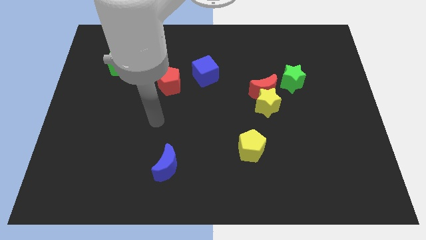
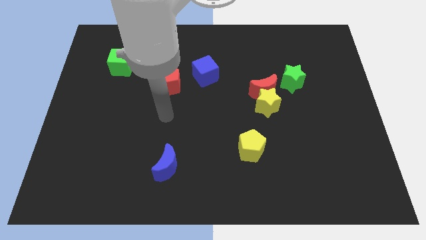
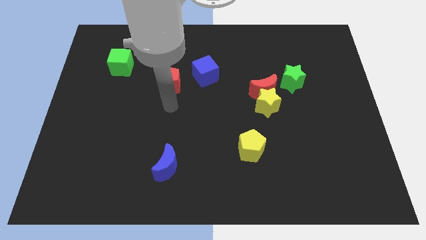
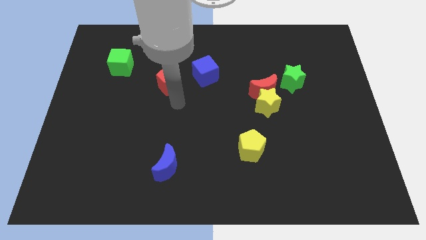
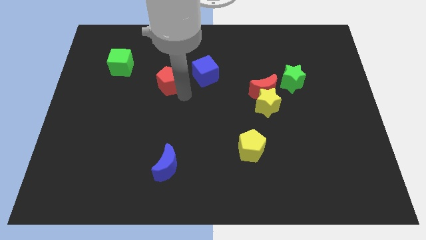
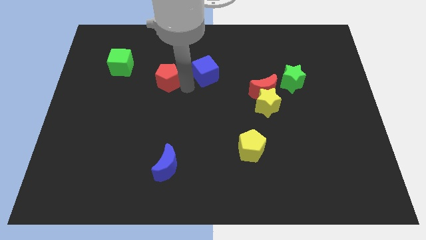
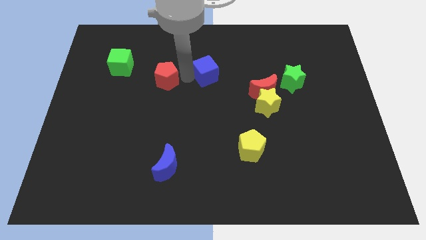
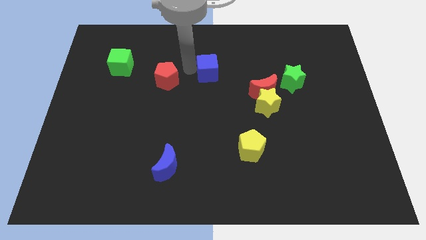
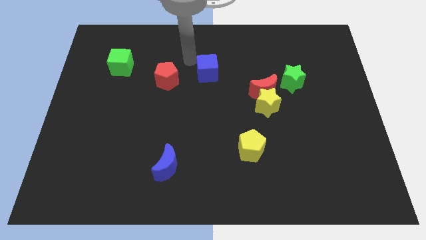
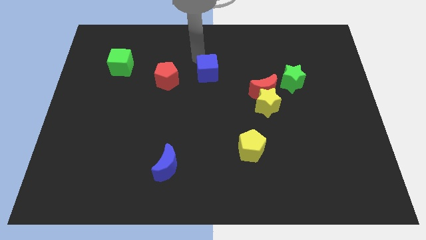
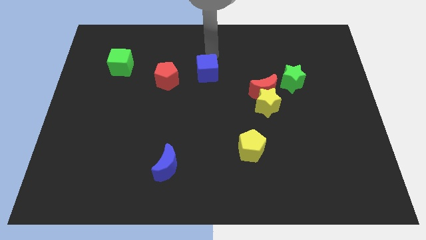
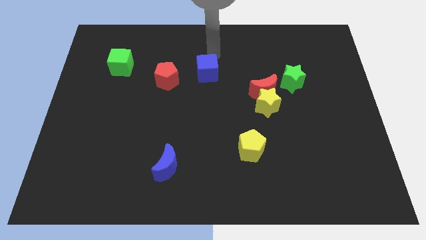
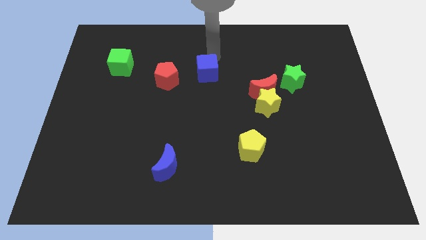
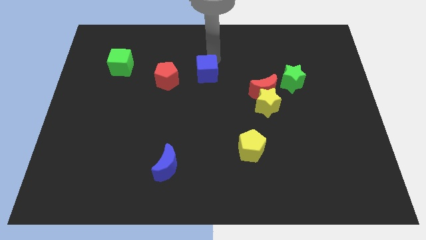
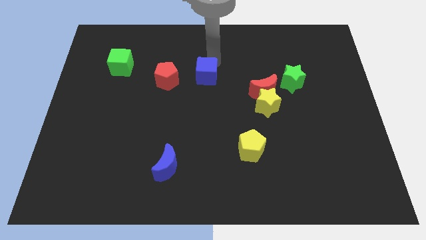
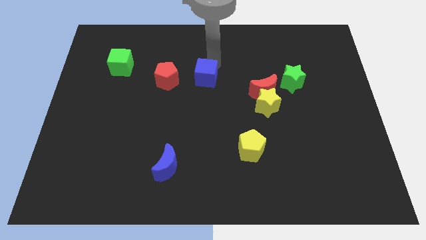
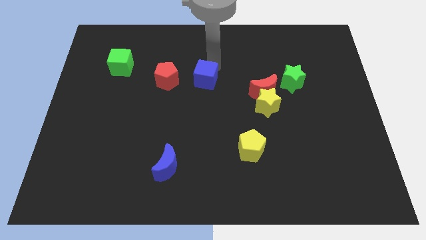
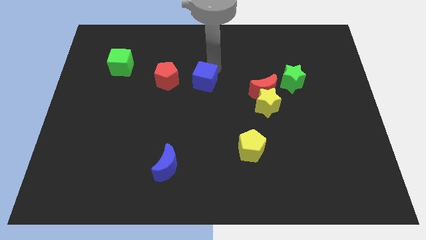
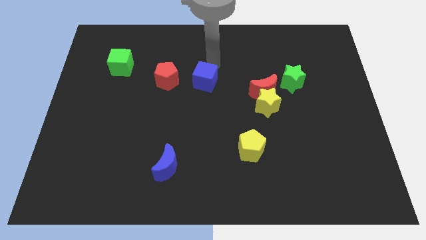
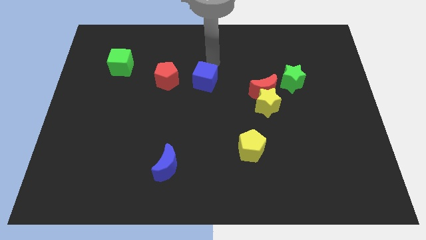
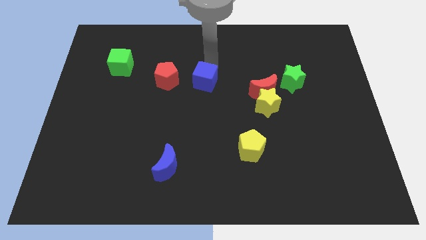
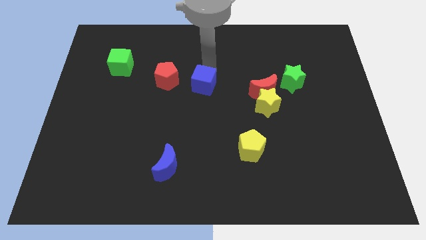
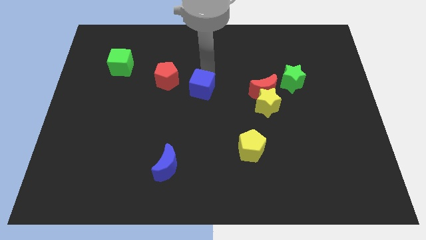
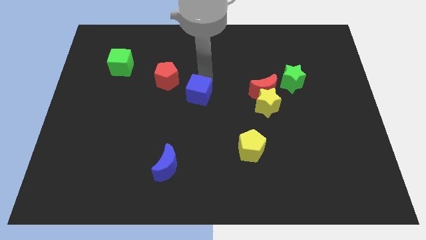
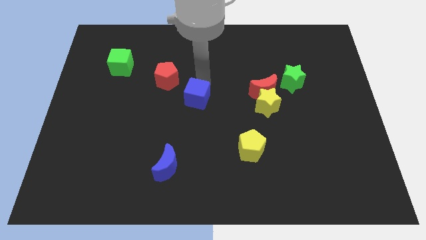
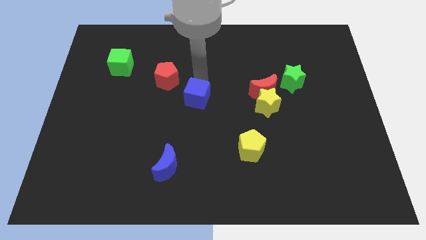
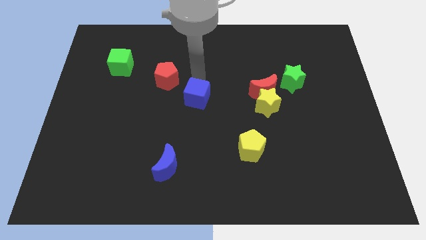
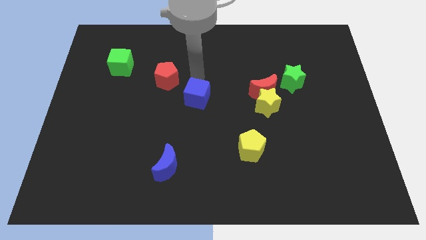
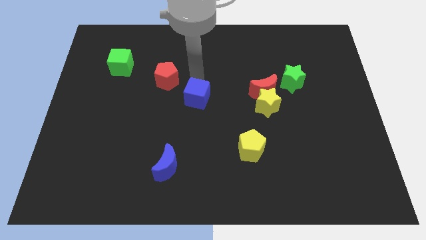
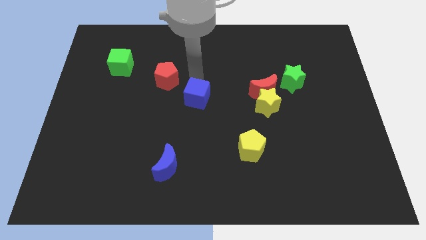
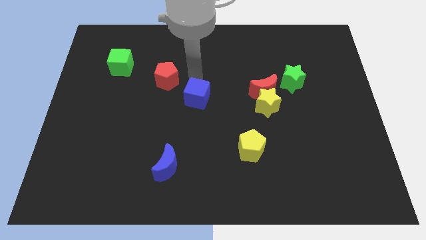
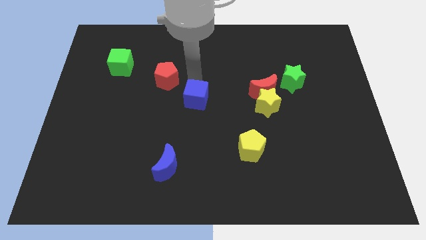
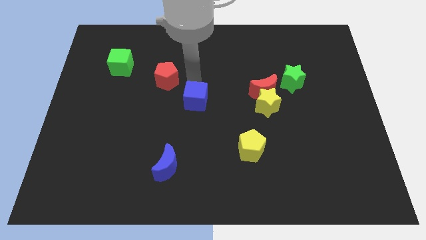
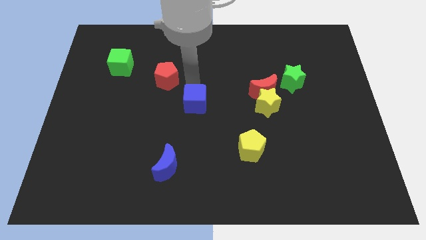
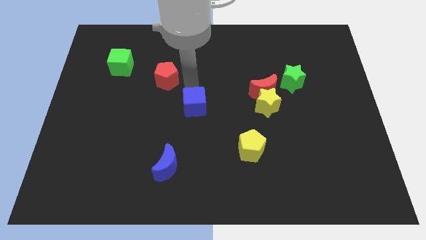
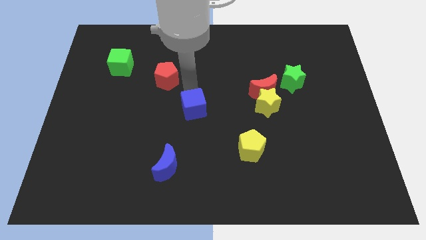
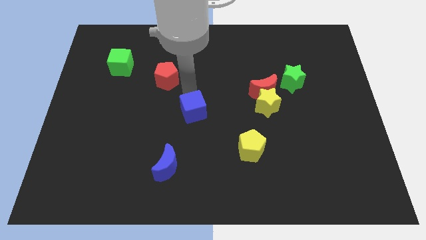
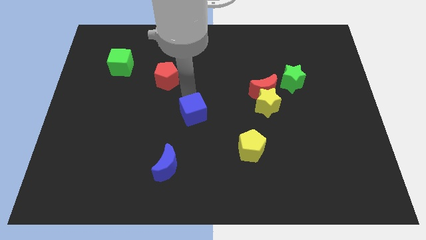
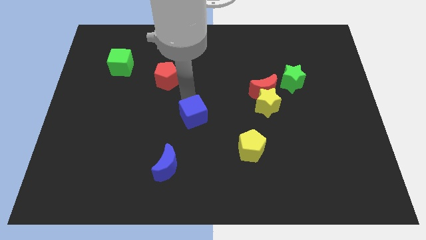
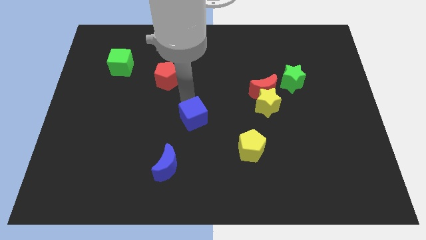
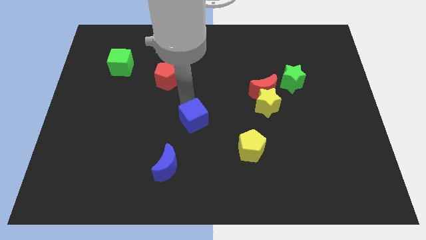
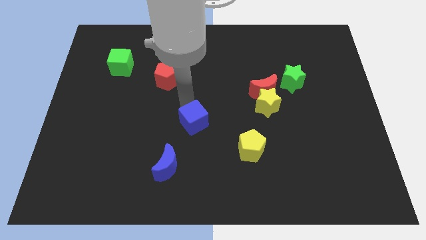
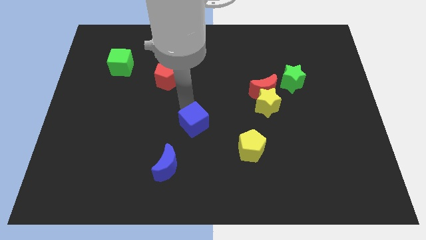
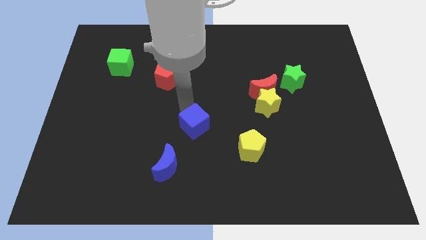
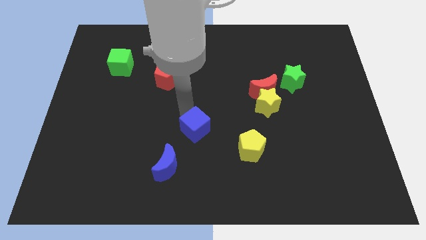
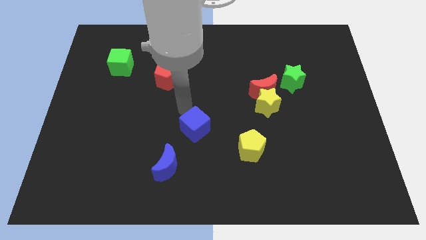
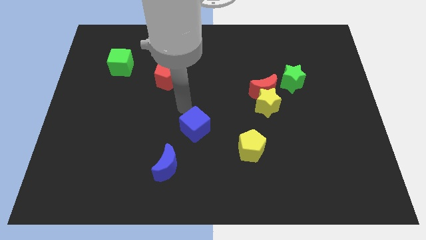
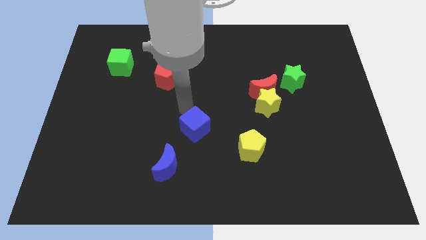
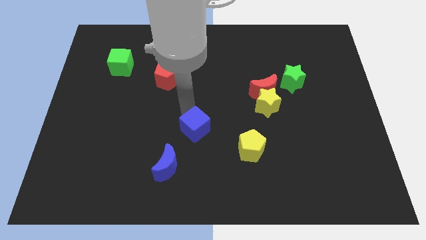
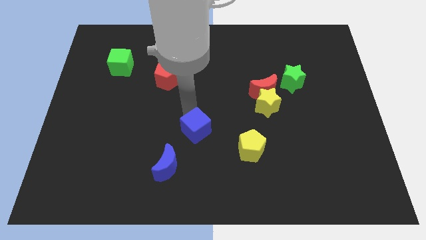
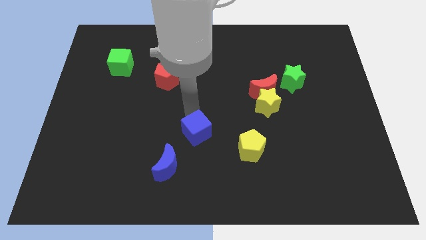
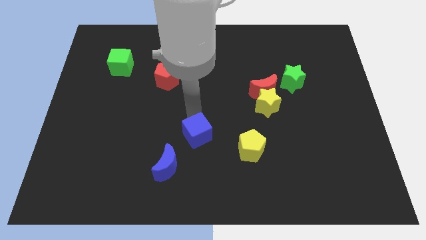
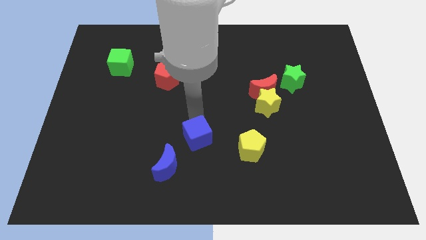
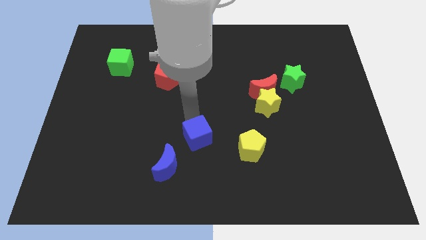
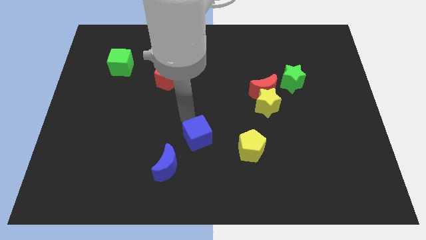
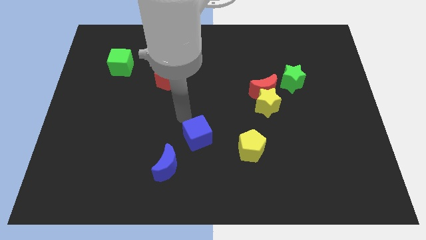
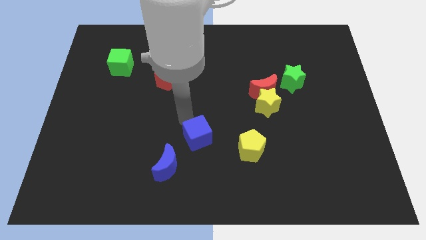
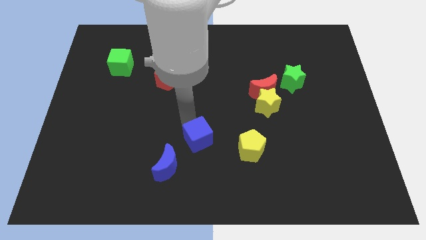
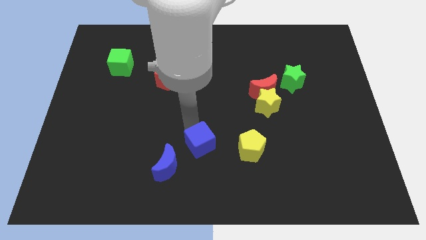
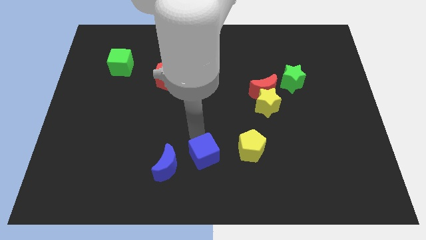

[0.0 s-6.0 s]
put the blue cube to the bottom
